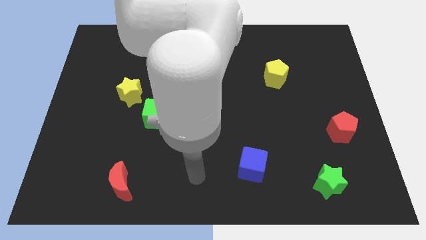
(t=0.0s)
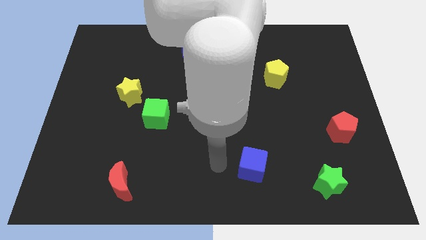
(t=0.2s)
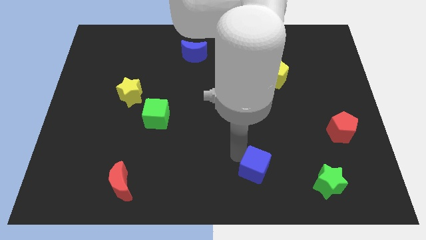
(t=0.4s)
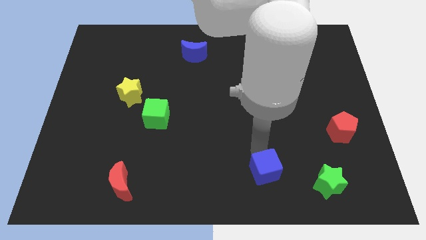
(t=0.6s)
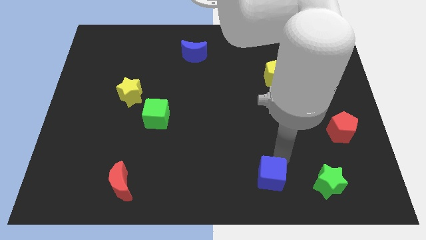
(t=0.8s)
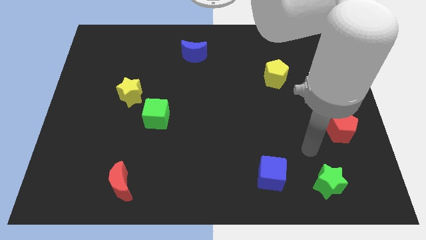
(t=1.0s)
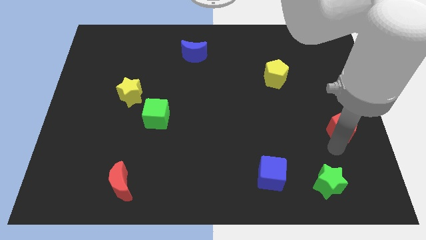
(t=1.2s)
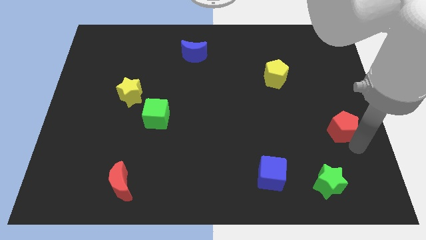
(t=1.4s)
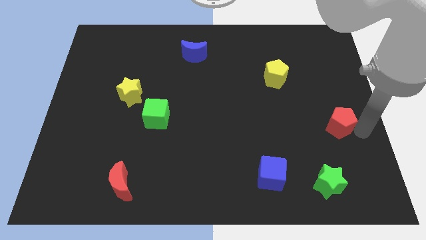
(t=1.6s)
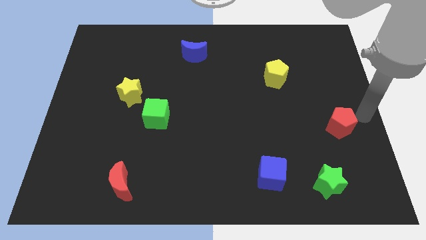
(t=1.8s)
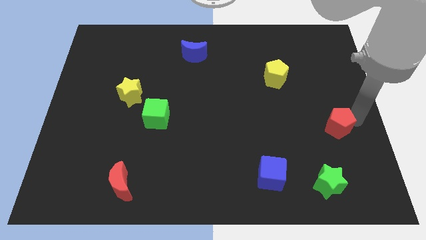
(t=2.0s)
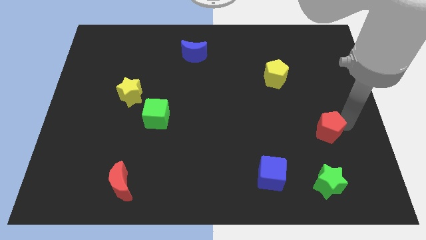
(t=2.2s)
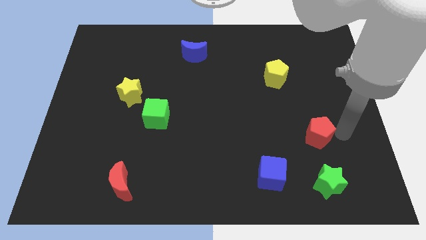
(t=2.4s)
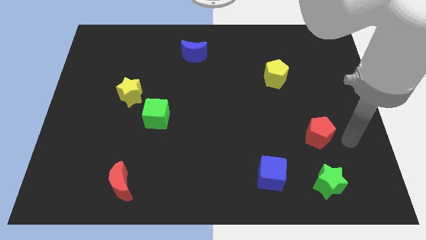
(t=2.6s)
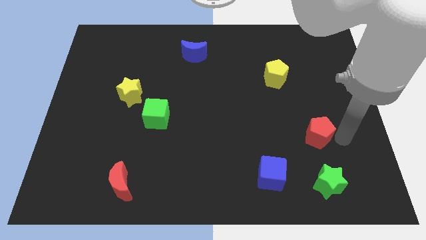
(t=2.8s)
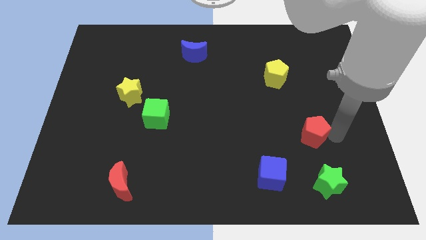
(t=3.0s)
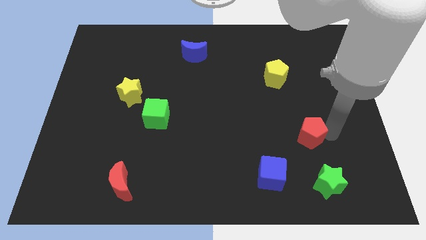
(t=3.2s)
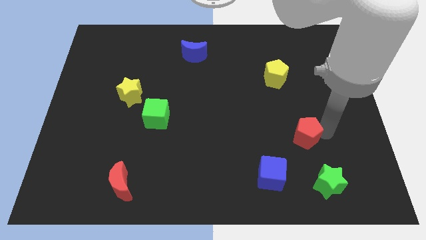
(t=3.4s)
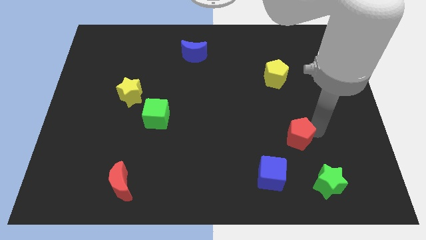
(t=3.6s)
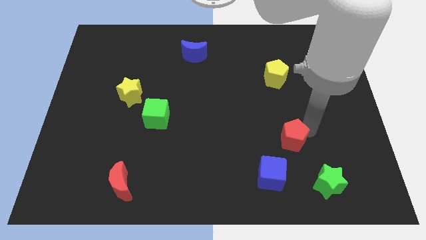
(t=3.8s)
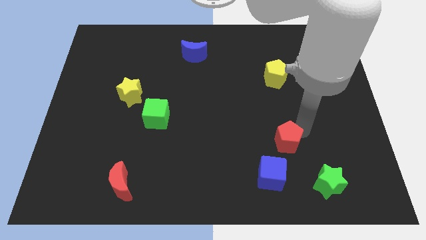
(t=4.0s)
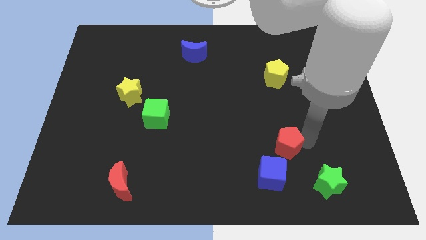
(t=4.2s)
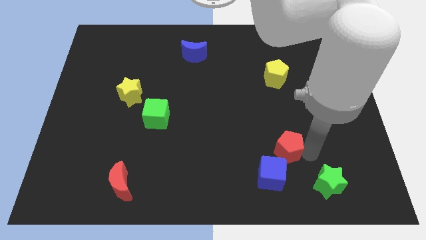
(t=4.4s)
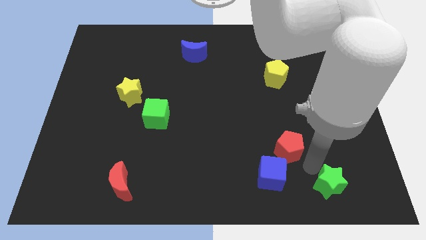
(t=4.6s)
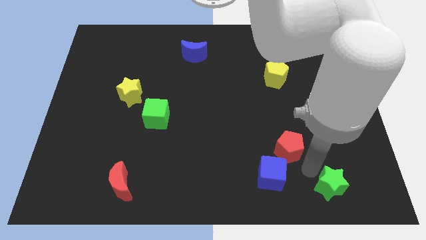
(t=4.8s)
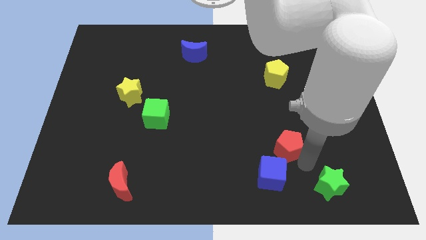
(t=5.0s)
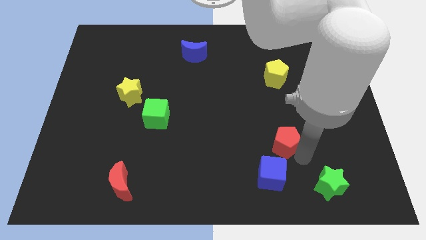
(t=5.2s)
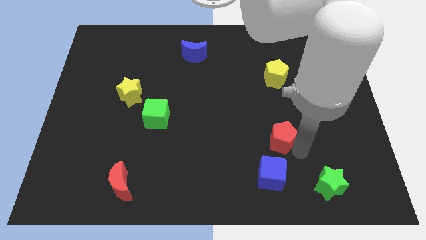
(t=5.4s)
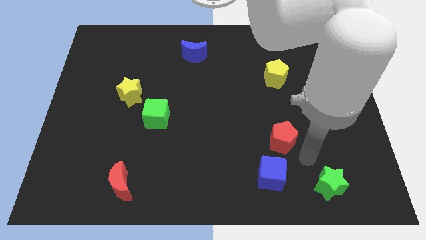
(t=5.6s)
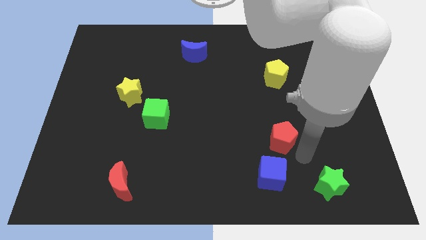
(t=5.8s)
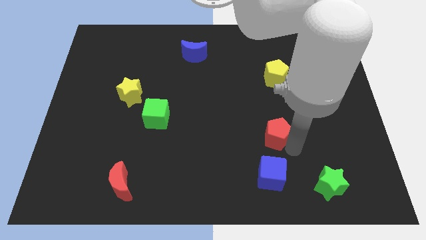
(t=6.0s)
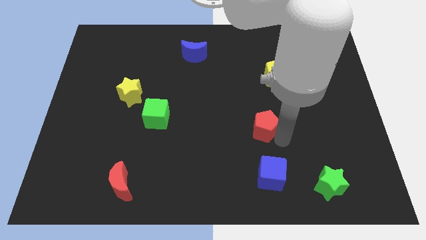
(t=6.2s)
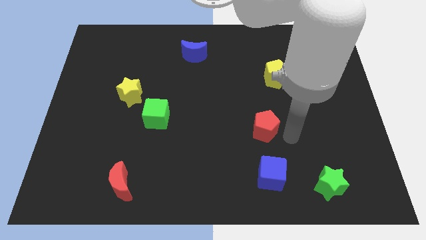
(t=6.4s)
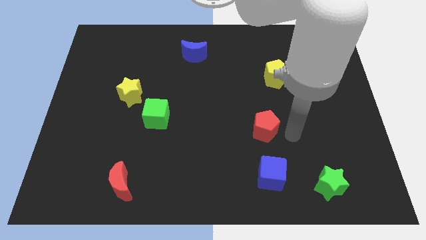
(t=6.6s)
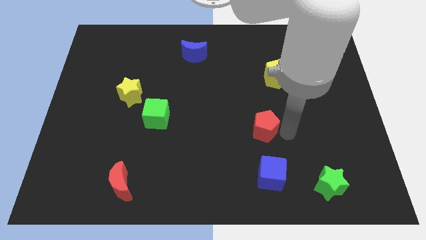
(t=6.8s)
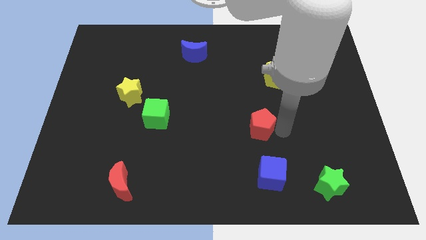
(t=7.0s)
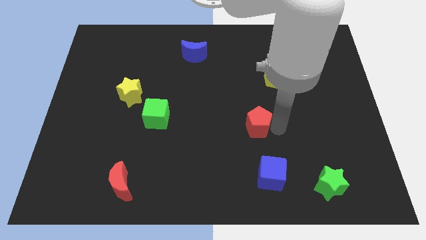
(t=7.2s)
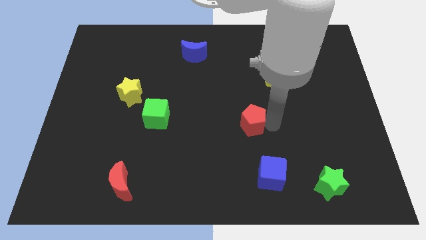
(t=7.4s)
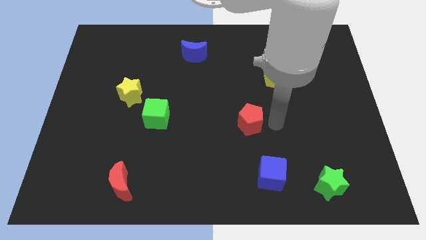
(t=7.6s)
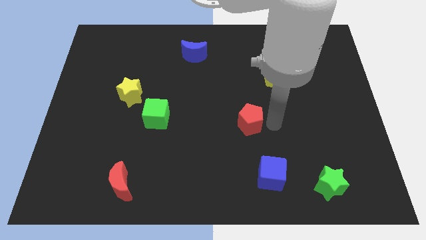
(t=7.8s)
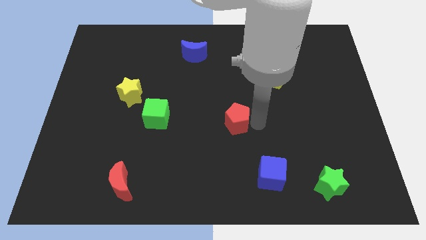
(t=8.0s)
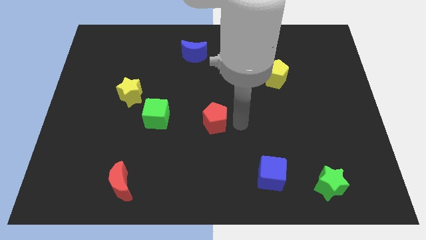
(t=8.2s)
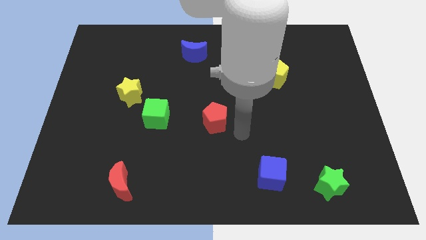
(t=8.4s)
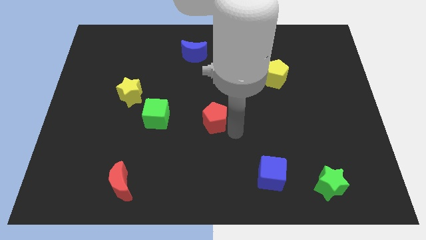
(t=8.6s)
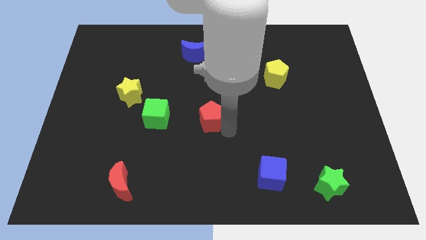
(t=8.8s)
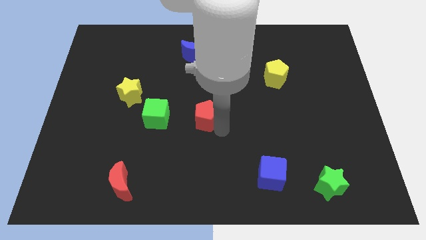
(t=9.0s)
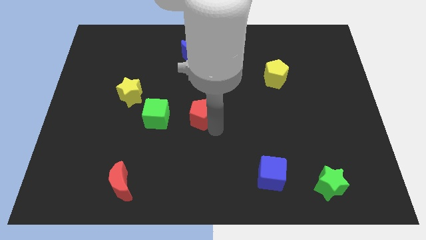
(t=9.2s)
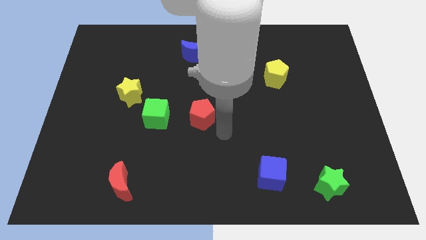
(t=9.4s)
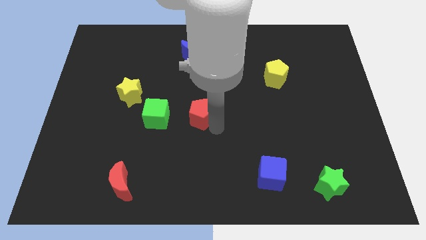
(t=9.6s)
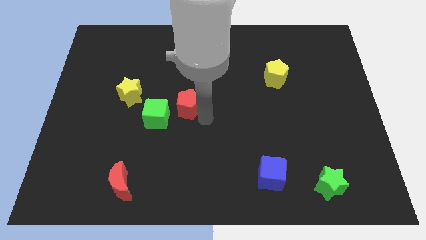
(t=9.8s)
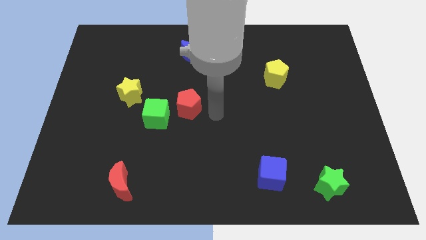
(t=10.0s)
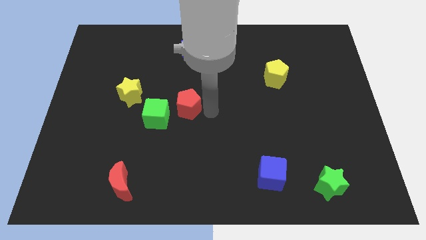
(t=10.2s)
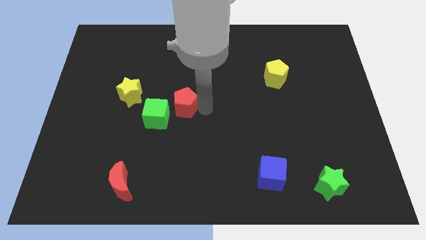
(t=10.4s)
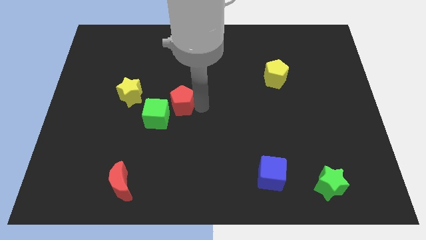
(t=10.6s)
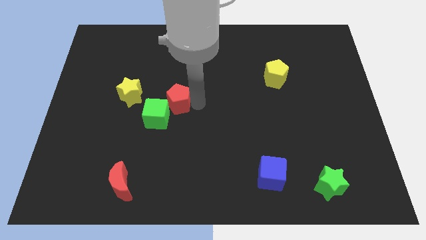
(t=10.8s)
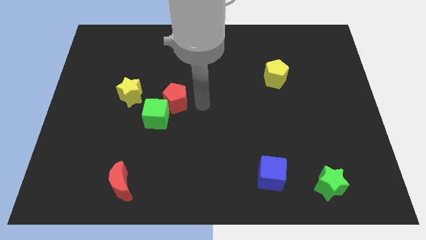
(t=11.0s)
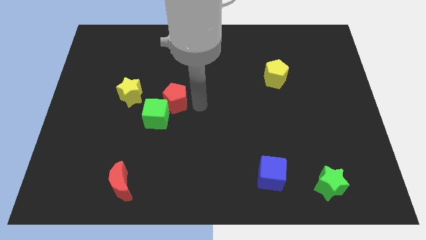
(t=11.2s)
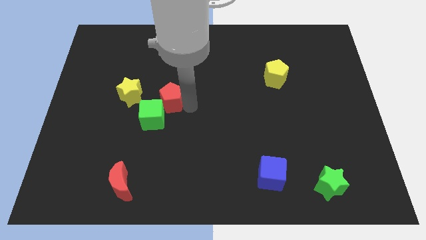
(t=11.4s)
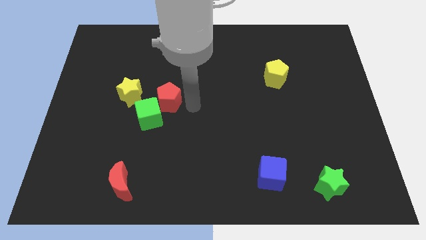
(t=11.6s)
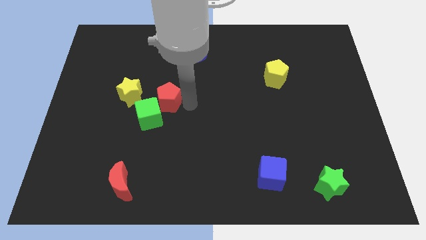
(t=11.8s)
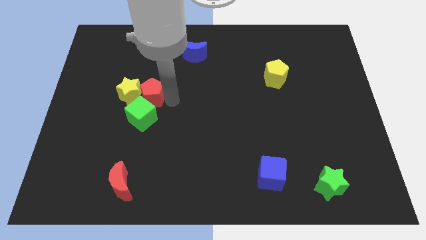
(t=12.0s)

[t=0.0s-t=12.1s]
put the red pentagon to the yellow star
